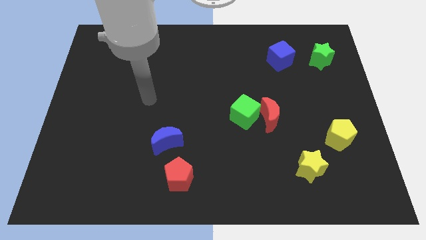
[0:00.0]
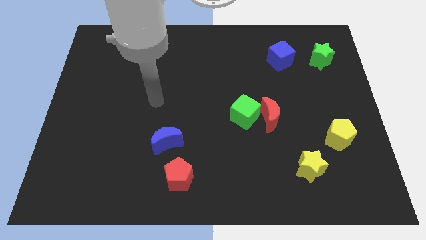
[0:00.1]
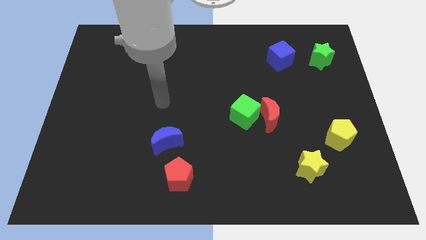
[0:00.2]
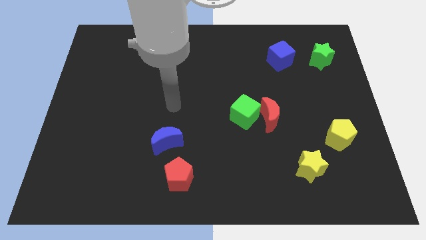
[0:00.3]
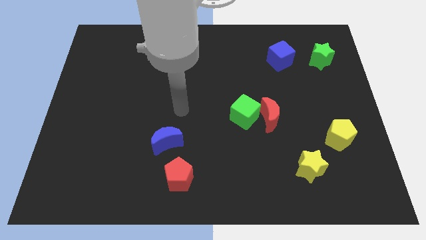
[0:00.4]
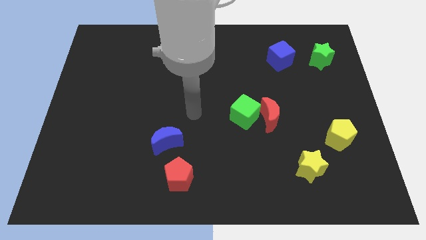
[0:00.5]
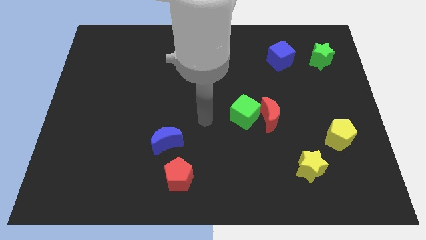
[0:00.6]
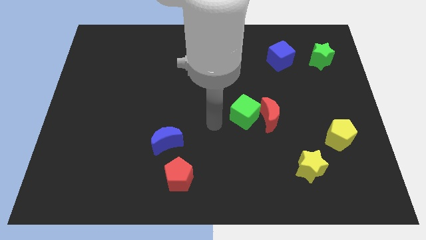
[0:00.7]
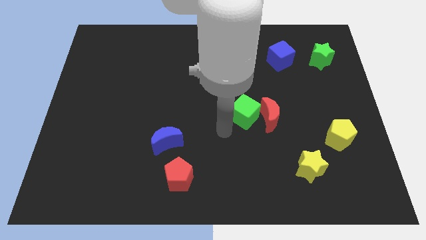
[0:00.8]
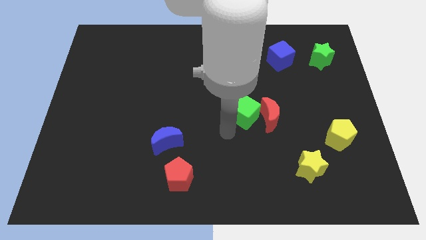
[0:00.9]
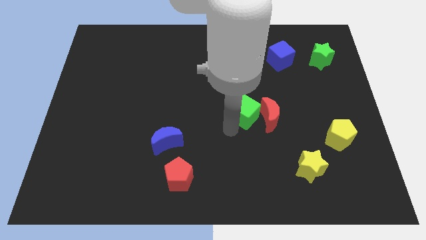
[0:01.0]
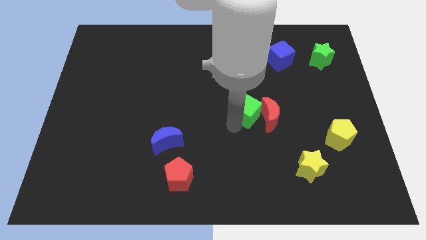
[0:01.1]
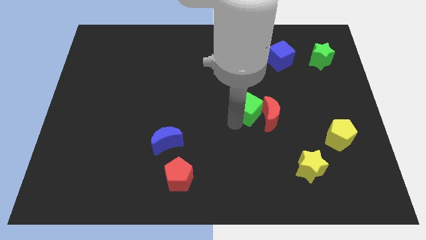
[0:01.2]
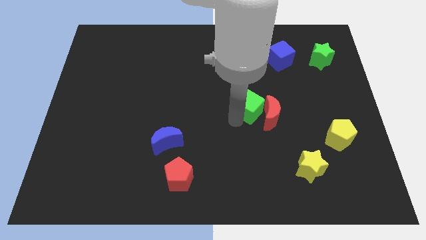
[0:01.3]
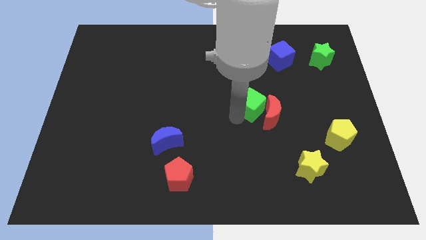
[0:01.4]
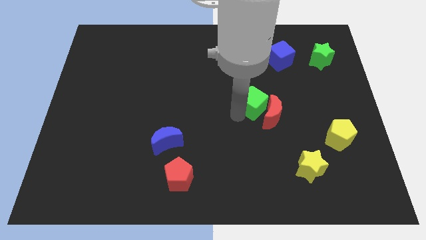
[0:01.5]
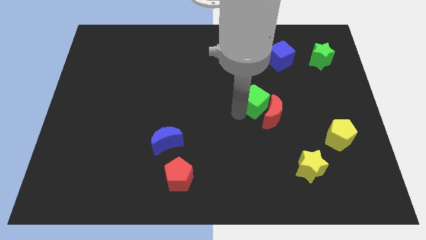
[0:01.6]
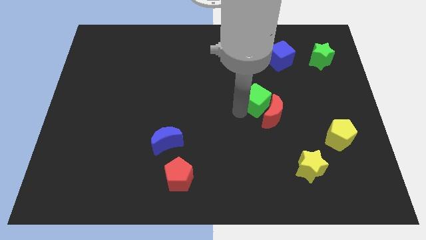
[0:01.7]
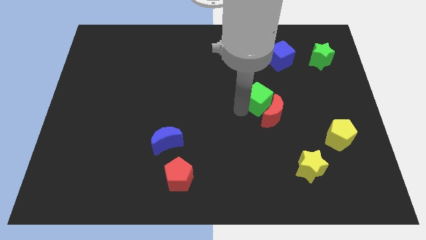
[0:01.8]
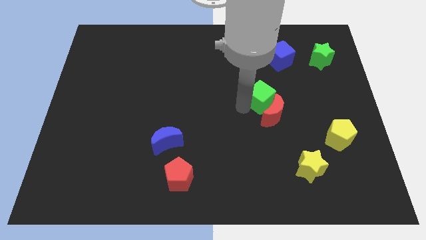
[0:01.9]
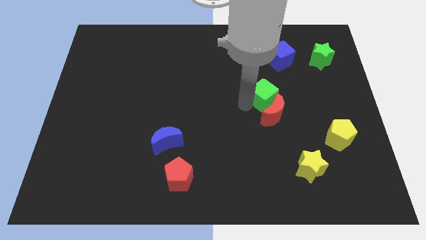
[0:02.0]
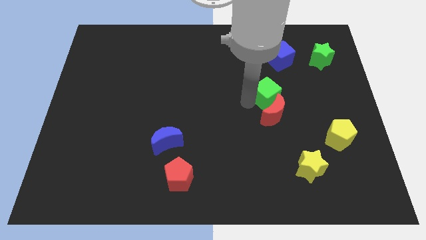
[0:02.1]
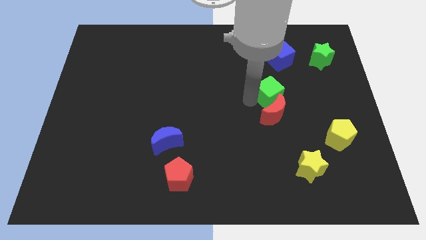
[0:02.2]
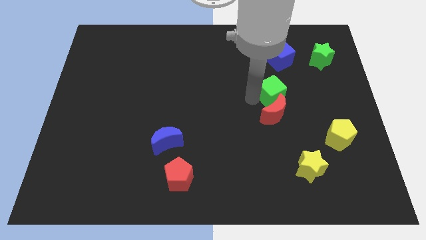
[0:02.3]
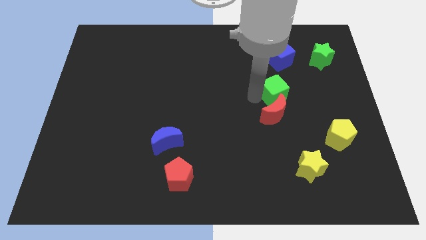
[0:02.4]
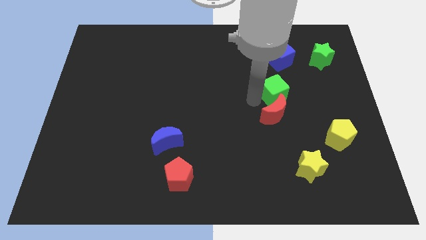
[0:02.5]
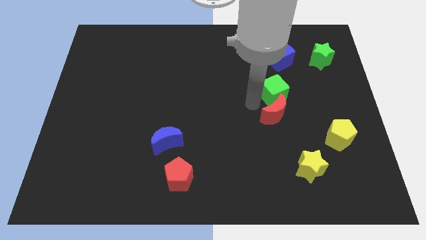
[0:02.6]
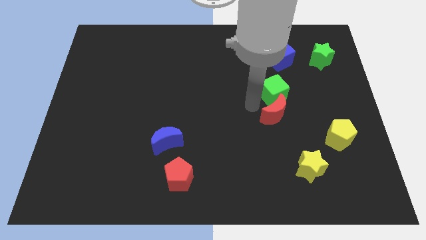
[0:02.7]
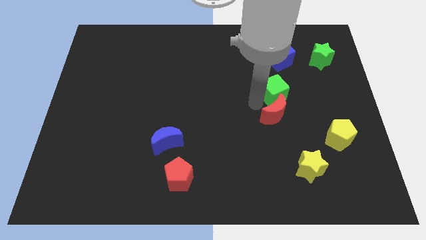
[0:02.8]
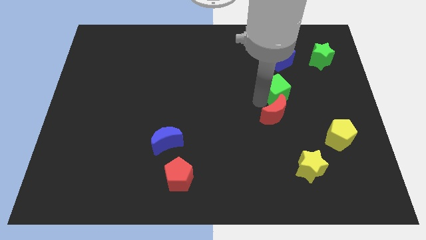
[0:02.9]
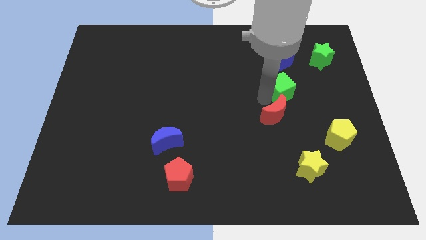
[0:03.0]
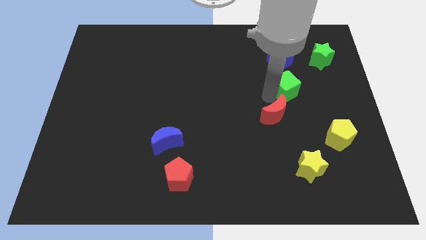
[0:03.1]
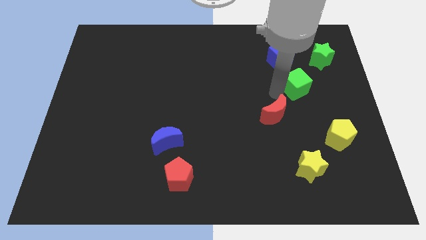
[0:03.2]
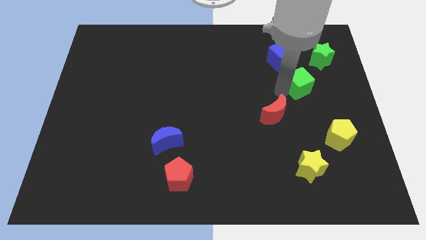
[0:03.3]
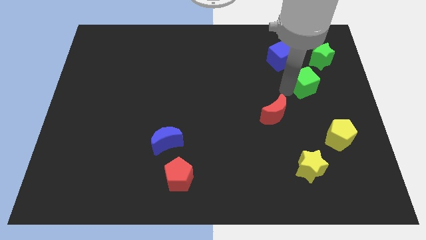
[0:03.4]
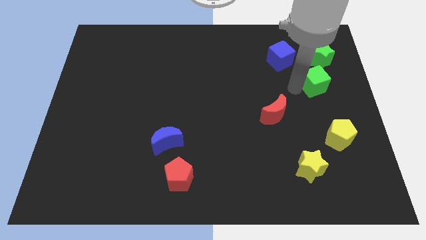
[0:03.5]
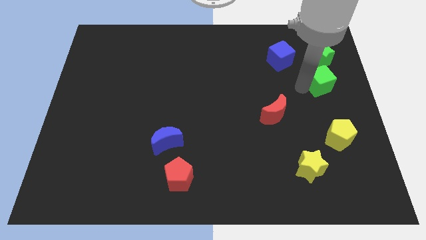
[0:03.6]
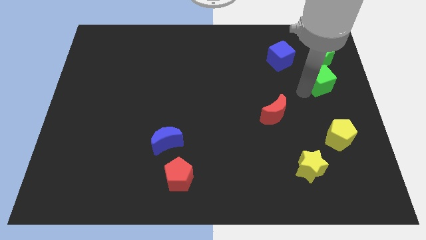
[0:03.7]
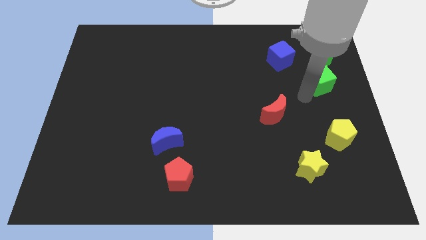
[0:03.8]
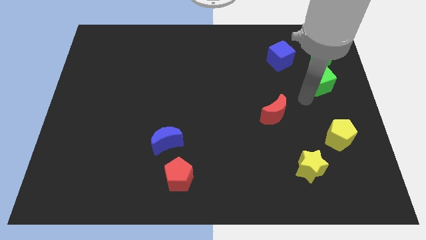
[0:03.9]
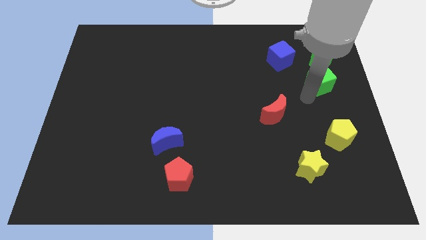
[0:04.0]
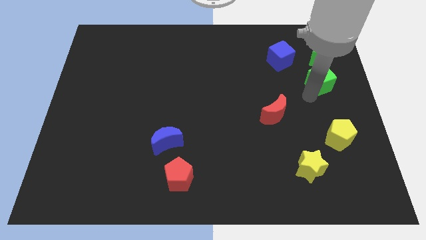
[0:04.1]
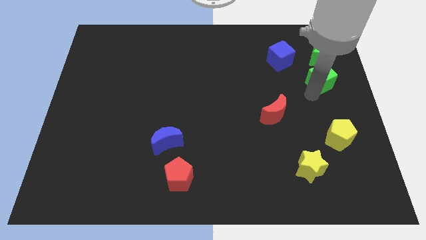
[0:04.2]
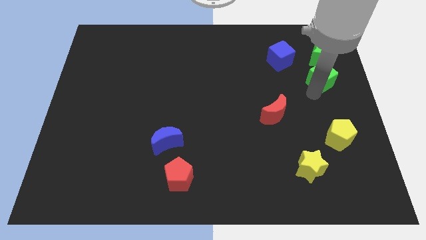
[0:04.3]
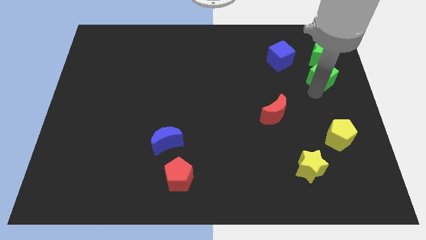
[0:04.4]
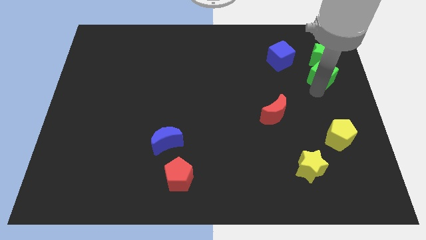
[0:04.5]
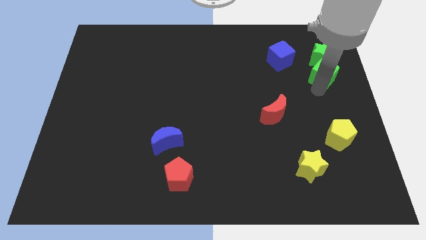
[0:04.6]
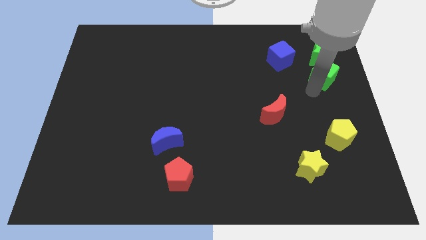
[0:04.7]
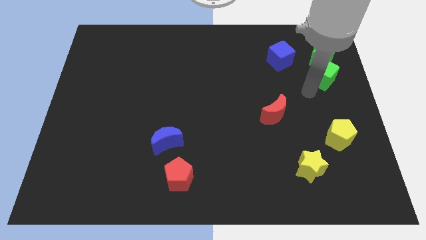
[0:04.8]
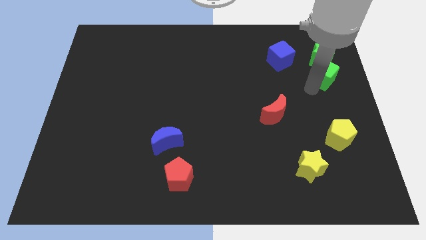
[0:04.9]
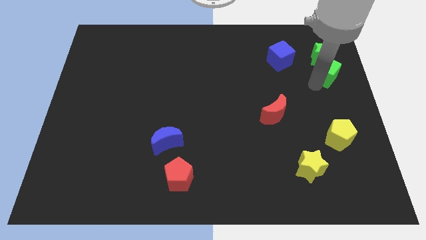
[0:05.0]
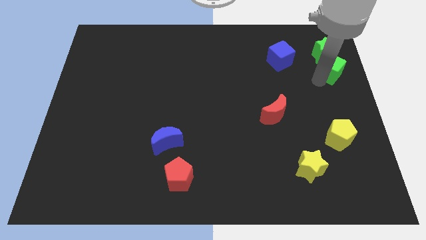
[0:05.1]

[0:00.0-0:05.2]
slide the green cube to the right of the blue cube

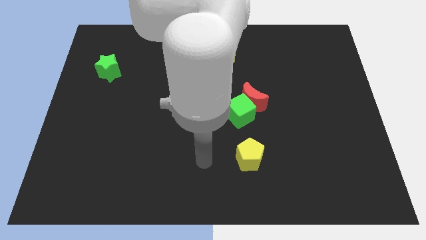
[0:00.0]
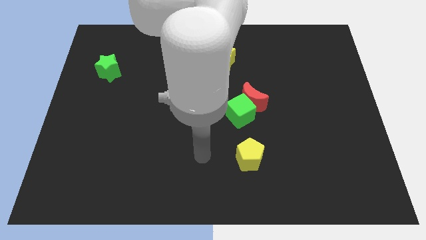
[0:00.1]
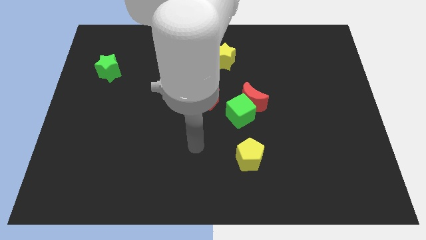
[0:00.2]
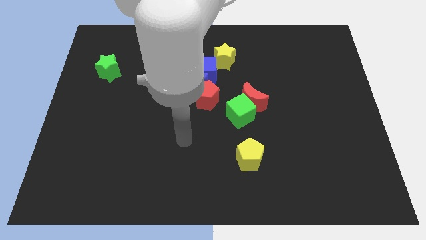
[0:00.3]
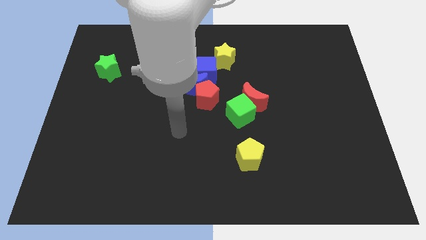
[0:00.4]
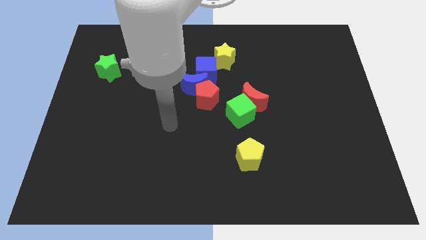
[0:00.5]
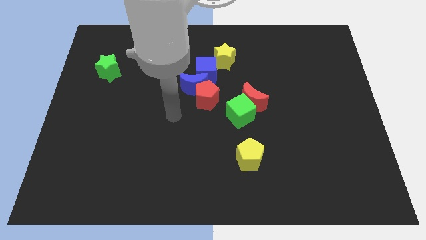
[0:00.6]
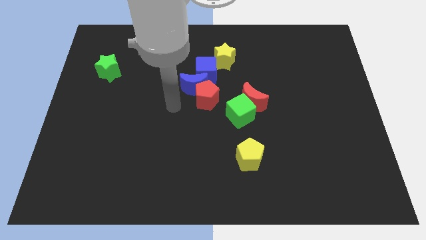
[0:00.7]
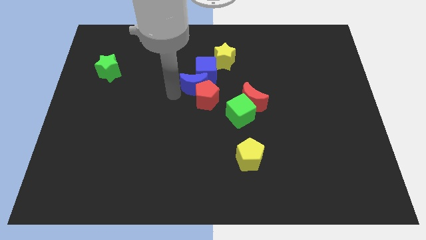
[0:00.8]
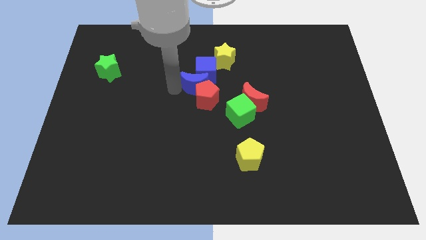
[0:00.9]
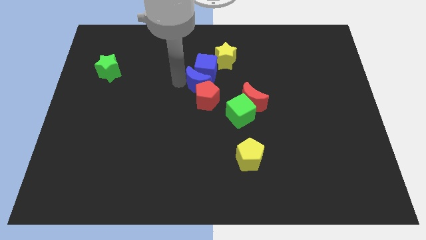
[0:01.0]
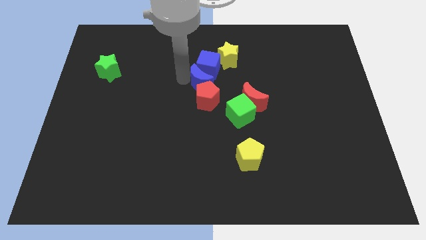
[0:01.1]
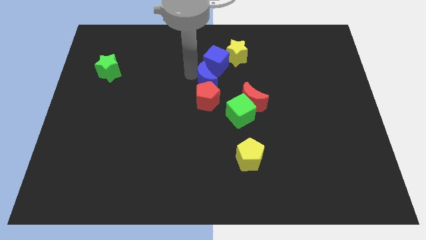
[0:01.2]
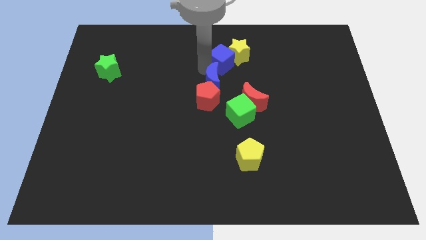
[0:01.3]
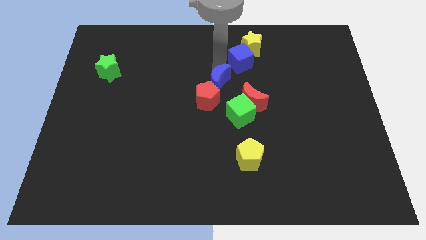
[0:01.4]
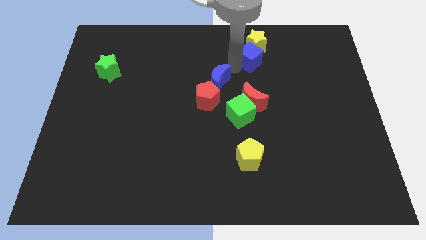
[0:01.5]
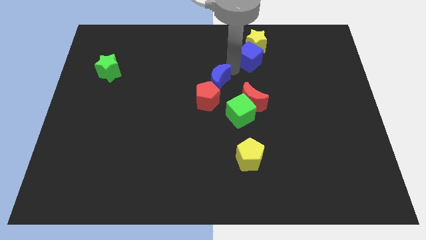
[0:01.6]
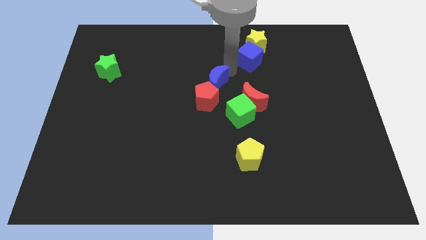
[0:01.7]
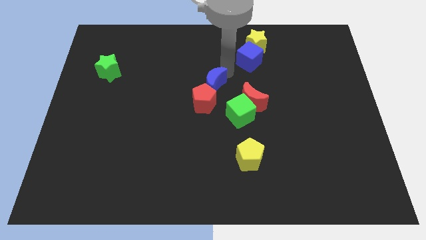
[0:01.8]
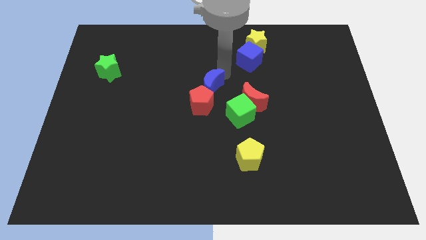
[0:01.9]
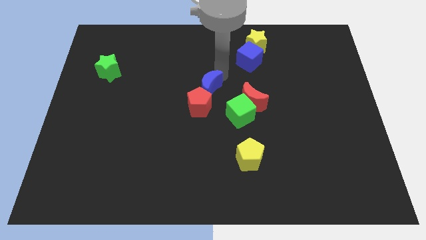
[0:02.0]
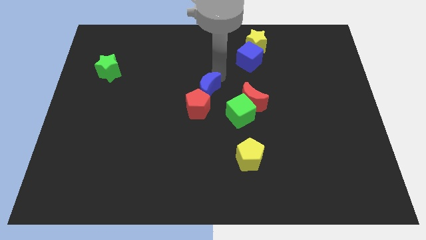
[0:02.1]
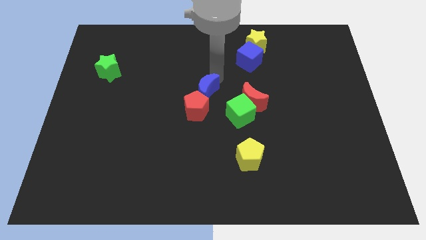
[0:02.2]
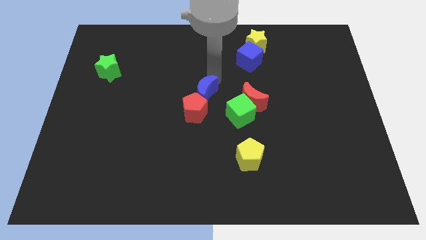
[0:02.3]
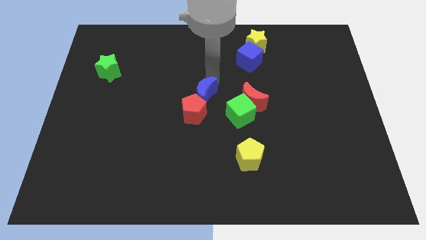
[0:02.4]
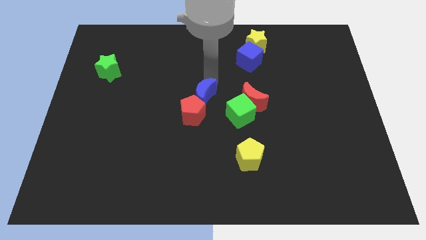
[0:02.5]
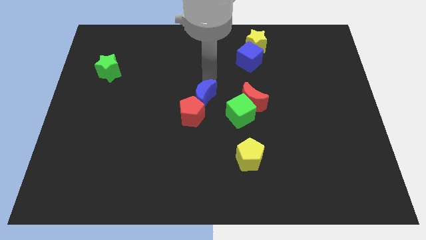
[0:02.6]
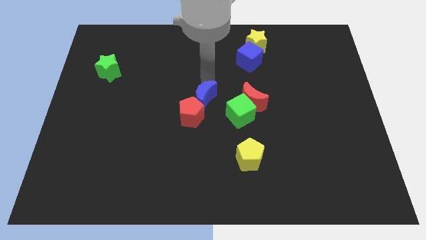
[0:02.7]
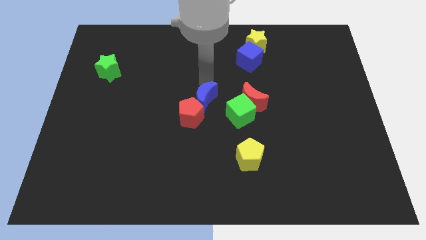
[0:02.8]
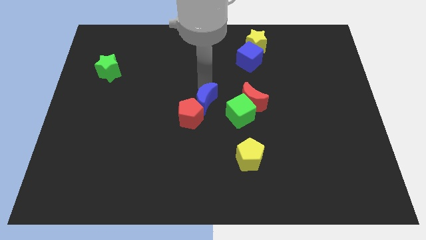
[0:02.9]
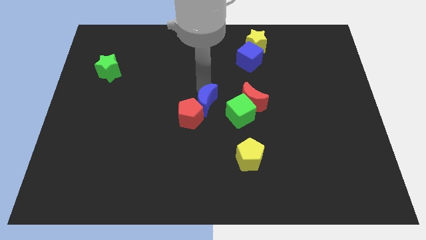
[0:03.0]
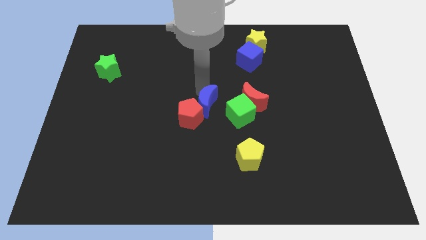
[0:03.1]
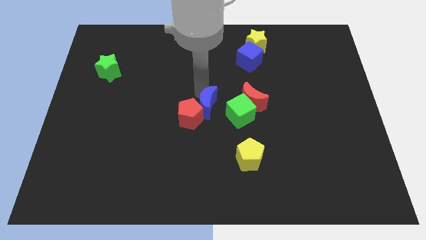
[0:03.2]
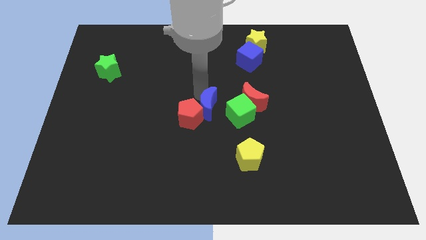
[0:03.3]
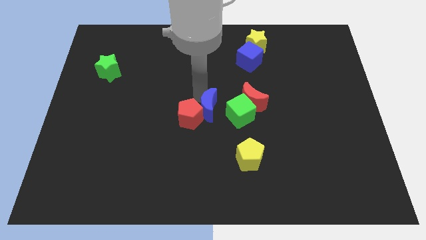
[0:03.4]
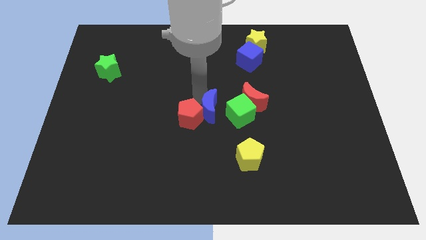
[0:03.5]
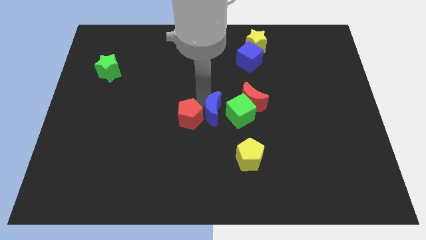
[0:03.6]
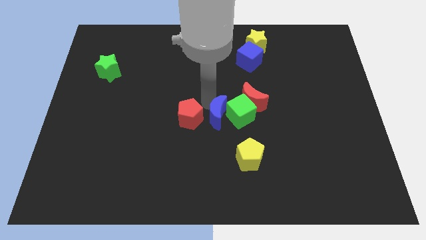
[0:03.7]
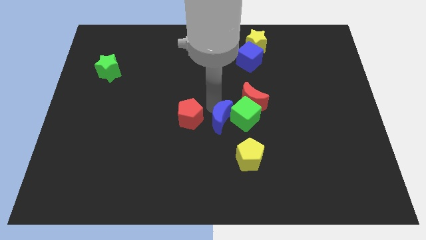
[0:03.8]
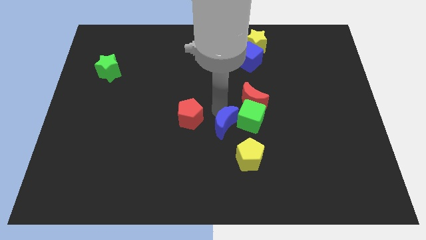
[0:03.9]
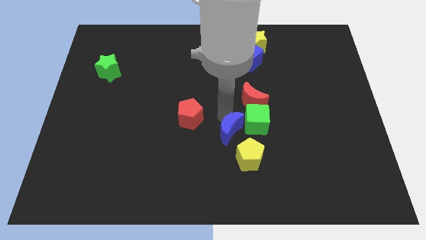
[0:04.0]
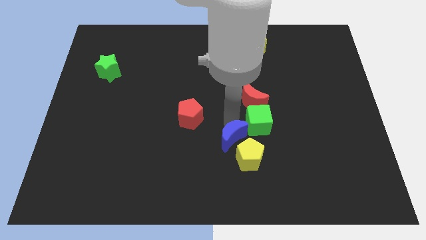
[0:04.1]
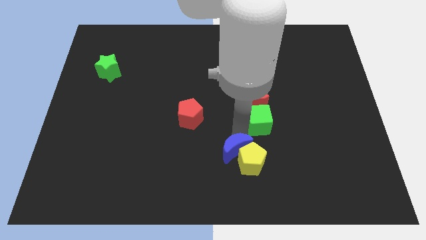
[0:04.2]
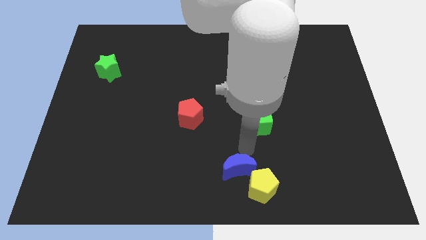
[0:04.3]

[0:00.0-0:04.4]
put the blue moon to the bottom of the green cube
